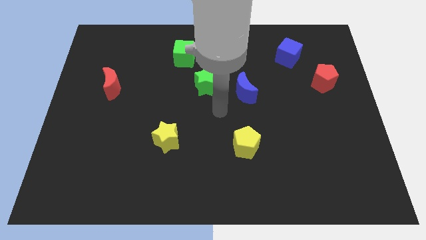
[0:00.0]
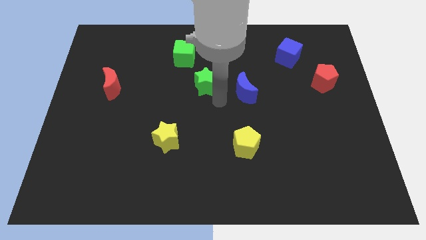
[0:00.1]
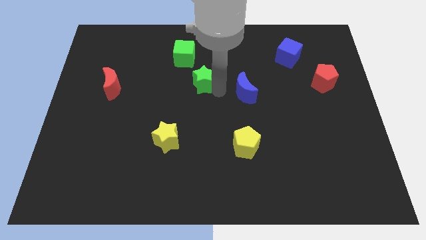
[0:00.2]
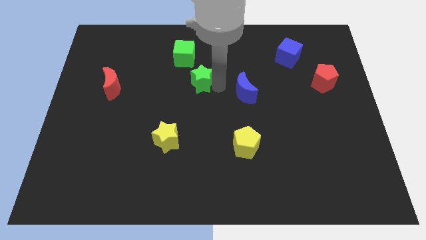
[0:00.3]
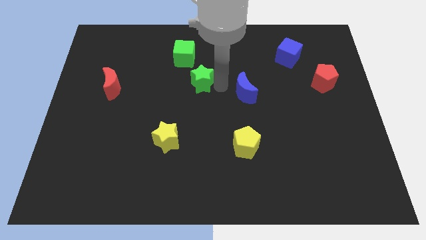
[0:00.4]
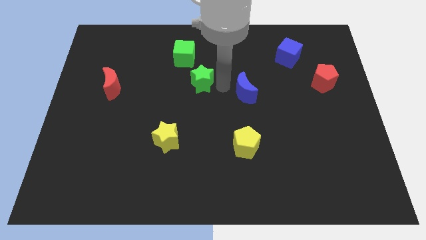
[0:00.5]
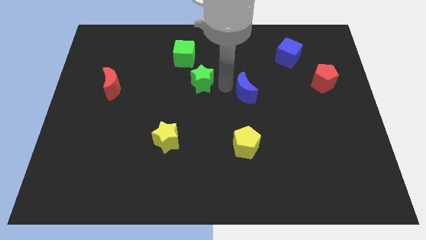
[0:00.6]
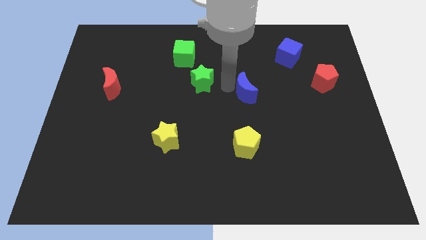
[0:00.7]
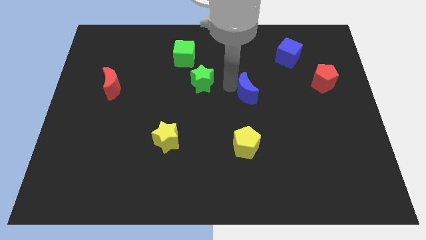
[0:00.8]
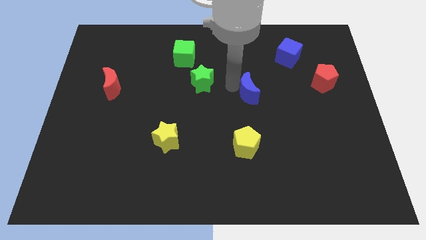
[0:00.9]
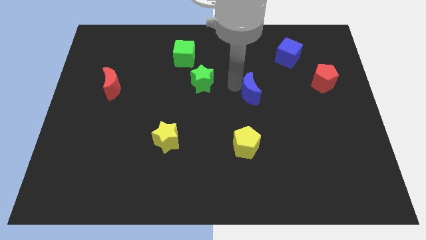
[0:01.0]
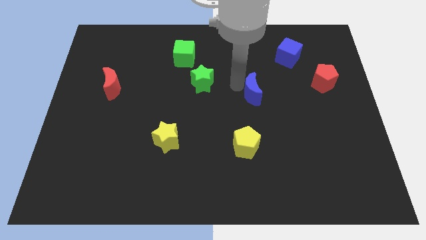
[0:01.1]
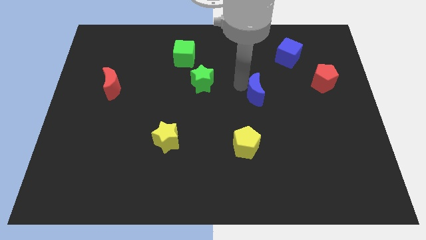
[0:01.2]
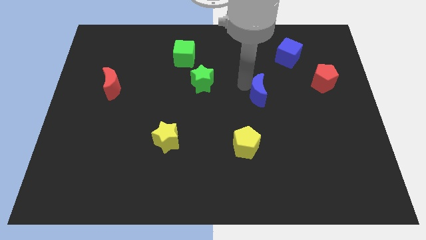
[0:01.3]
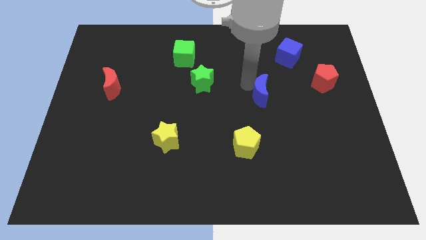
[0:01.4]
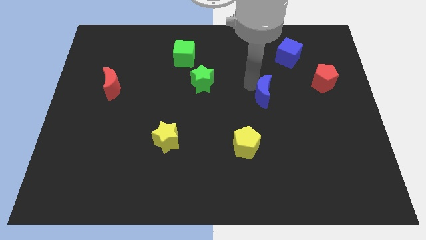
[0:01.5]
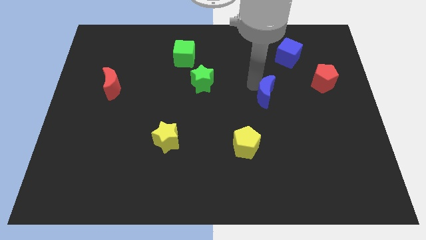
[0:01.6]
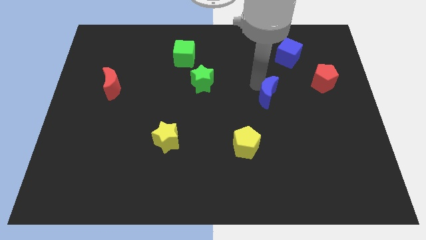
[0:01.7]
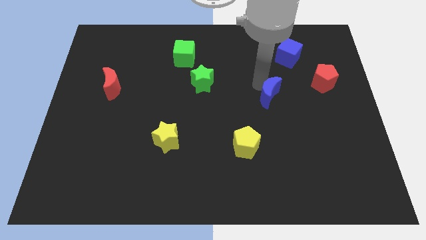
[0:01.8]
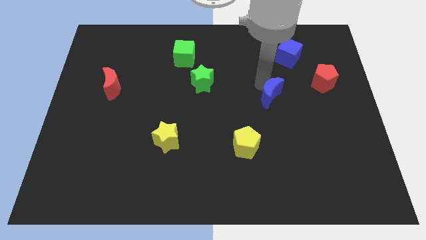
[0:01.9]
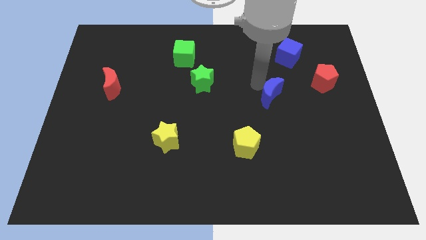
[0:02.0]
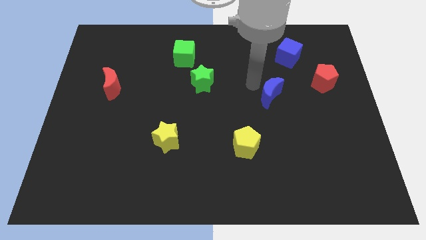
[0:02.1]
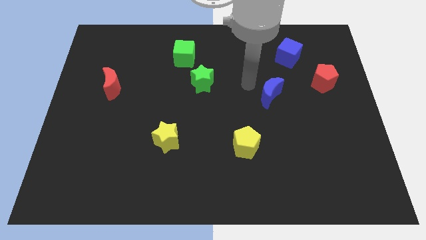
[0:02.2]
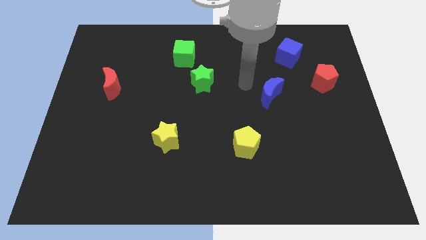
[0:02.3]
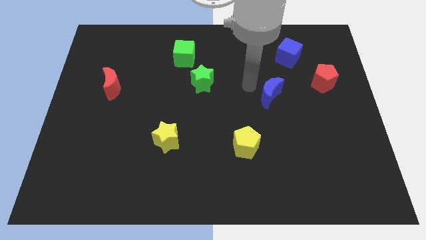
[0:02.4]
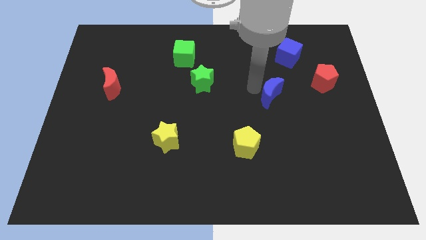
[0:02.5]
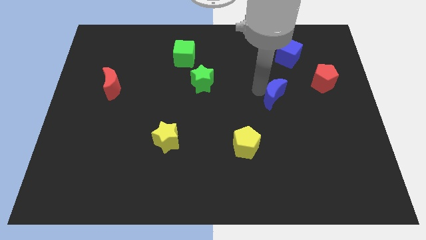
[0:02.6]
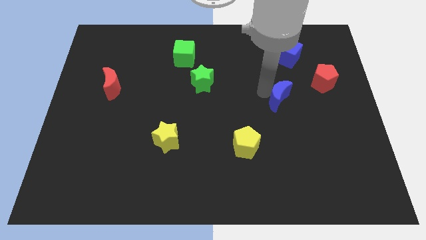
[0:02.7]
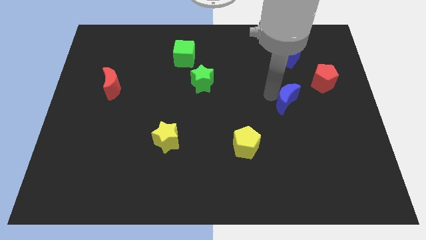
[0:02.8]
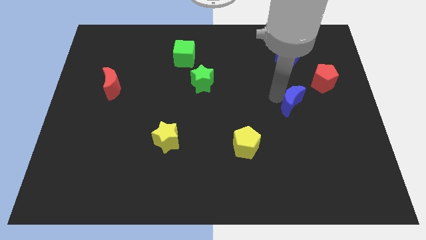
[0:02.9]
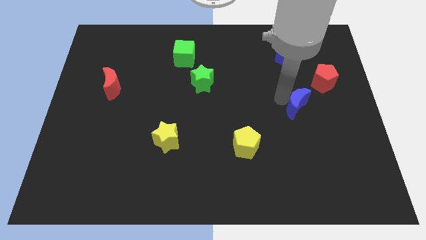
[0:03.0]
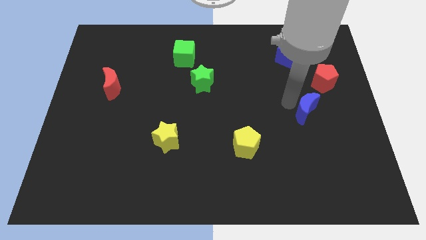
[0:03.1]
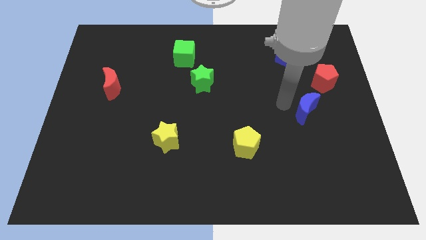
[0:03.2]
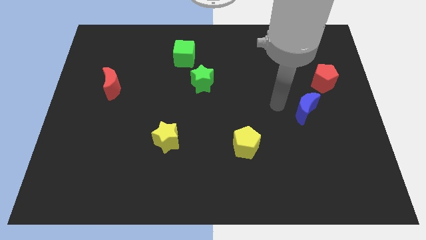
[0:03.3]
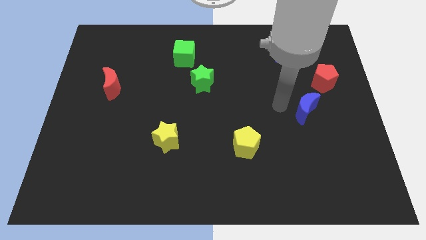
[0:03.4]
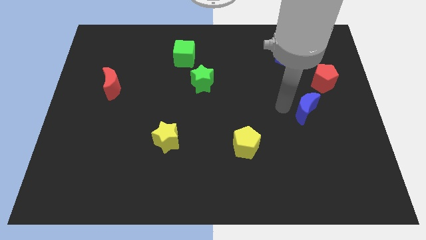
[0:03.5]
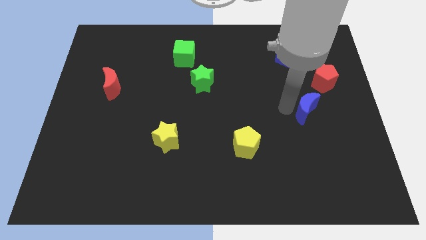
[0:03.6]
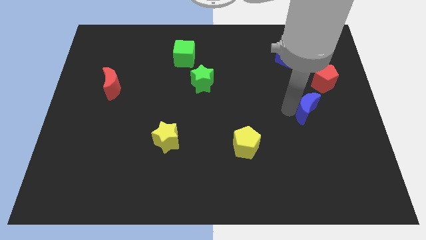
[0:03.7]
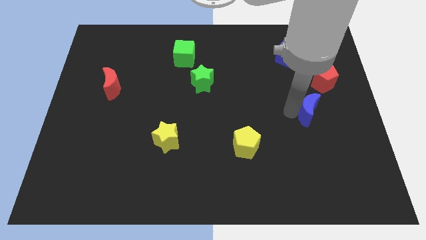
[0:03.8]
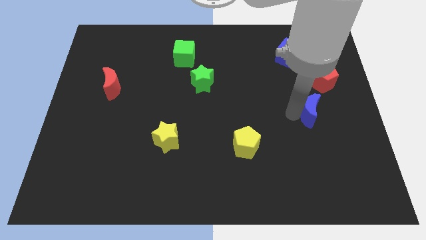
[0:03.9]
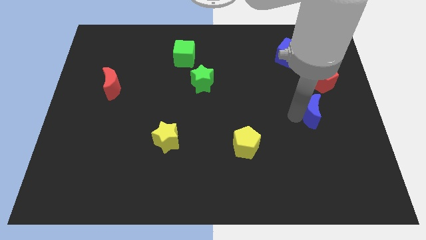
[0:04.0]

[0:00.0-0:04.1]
put the blue moon below the red pentagon

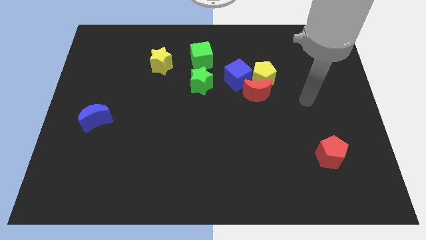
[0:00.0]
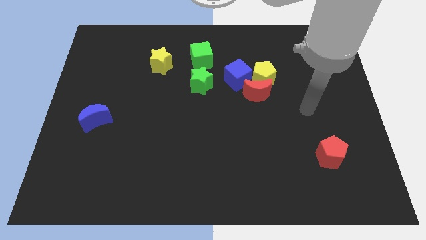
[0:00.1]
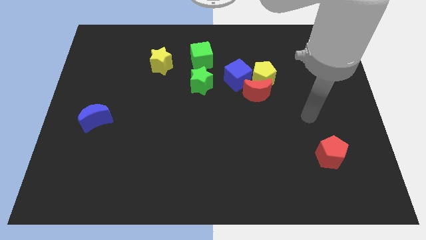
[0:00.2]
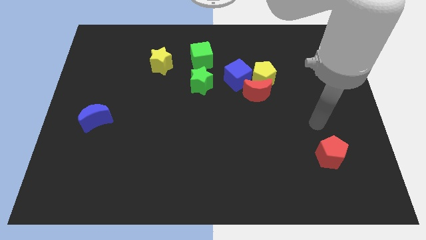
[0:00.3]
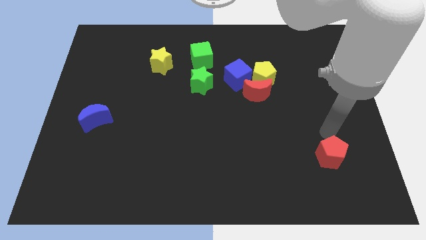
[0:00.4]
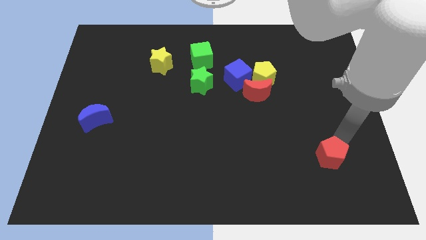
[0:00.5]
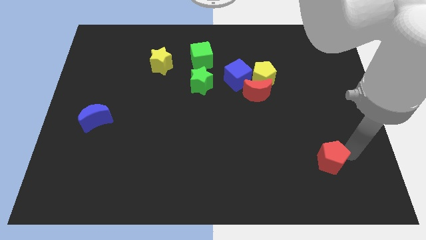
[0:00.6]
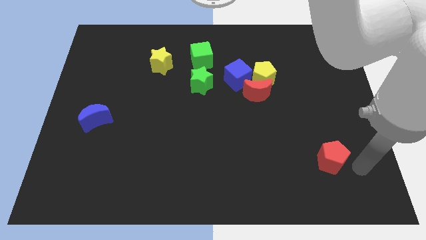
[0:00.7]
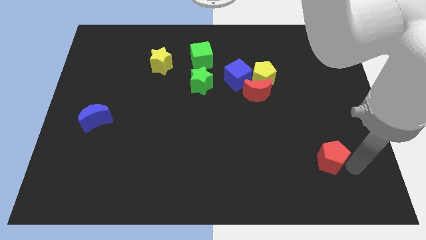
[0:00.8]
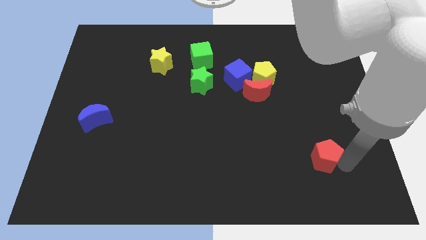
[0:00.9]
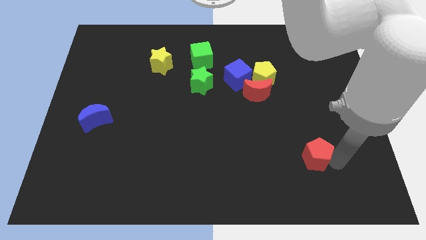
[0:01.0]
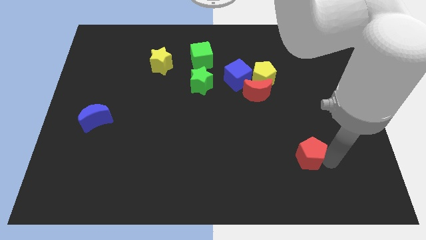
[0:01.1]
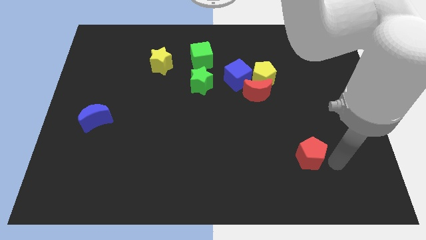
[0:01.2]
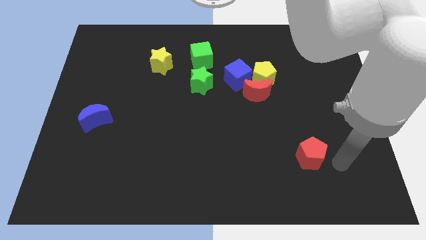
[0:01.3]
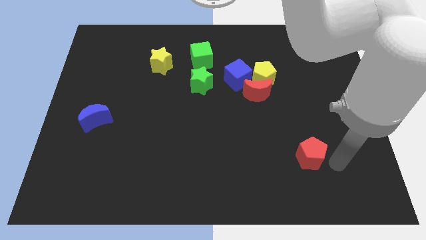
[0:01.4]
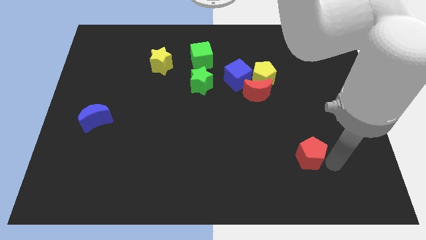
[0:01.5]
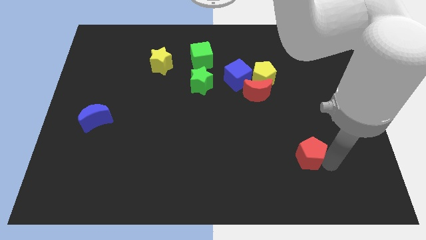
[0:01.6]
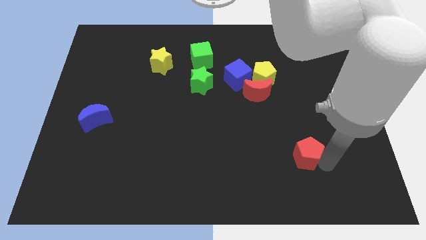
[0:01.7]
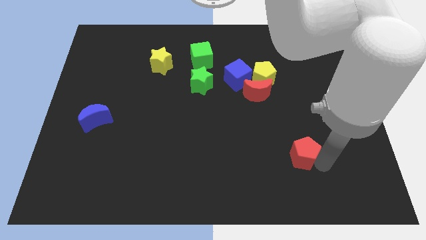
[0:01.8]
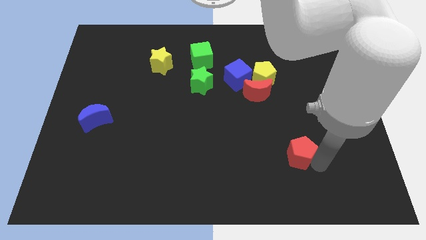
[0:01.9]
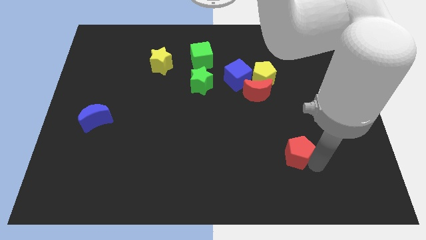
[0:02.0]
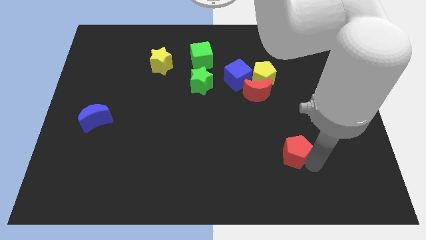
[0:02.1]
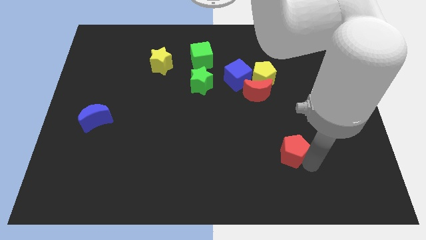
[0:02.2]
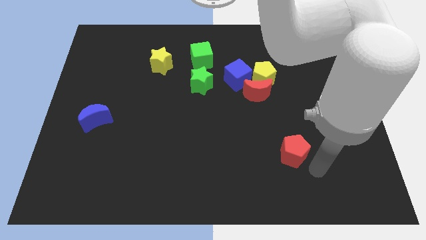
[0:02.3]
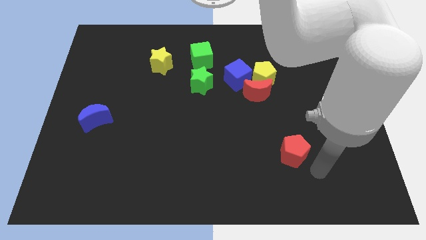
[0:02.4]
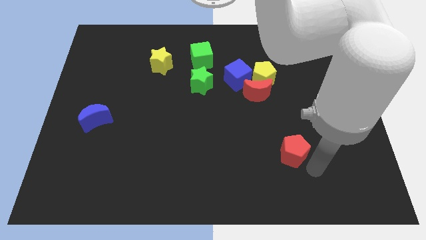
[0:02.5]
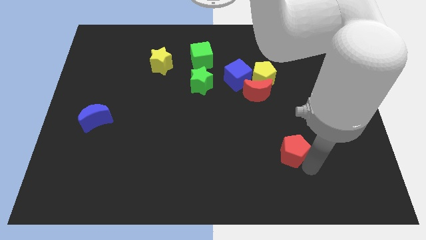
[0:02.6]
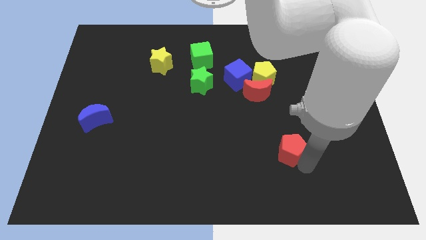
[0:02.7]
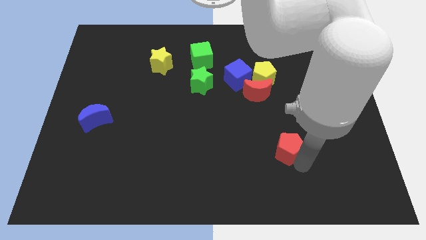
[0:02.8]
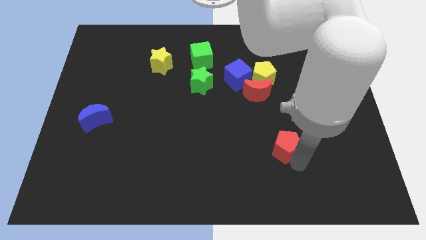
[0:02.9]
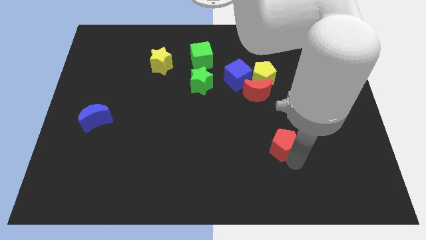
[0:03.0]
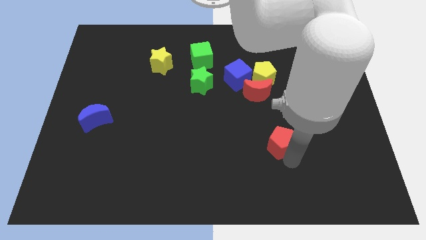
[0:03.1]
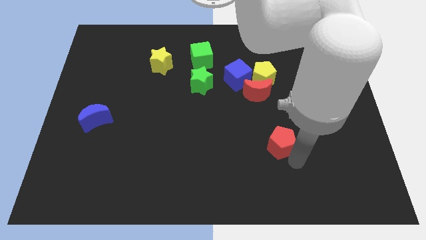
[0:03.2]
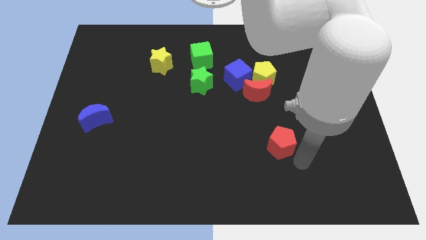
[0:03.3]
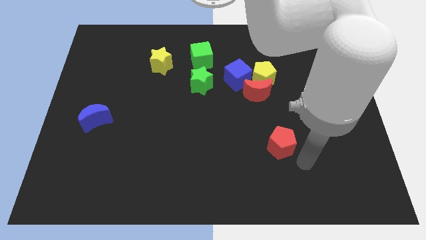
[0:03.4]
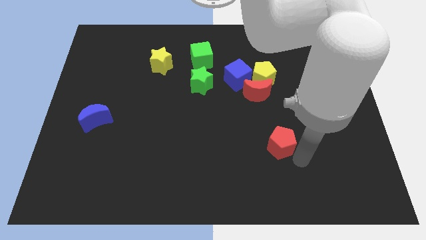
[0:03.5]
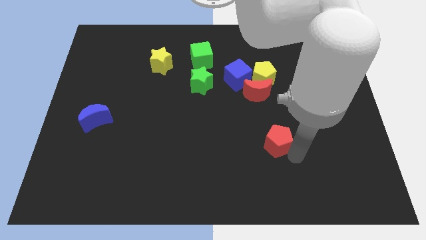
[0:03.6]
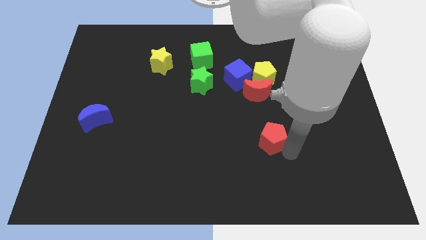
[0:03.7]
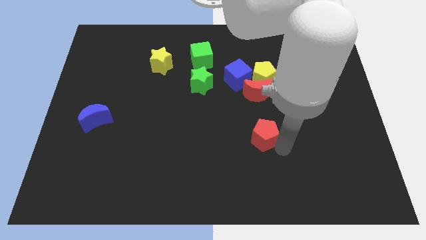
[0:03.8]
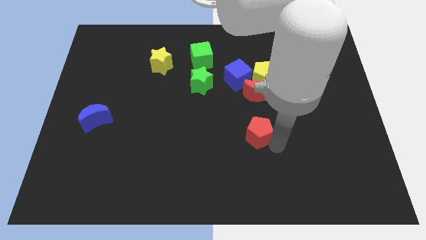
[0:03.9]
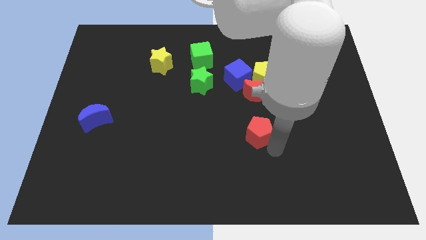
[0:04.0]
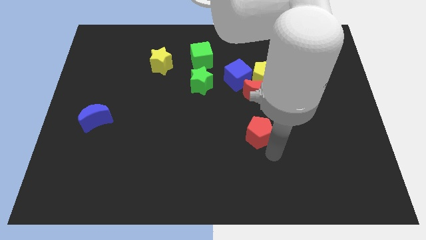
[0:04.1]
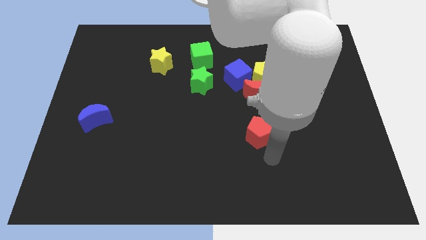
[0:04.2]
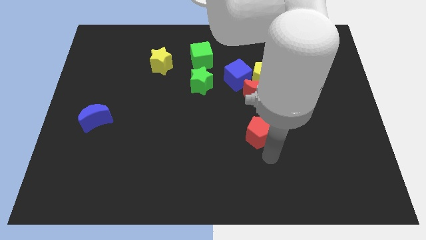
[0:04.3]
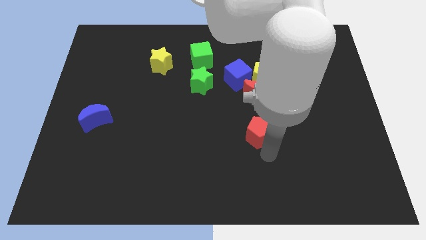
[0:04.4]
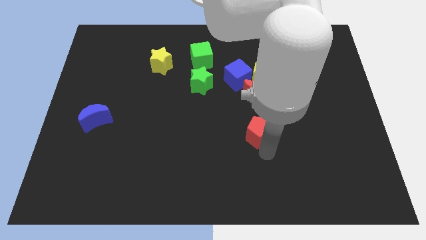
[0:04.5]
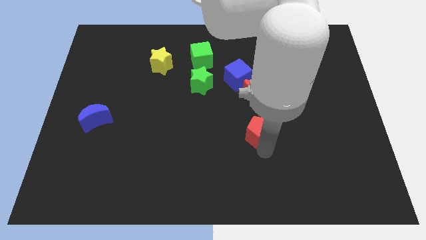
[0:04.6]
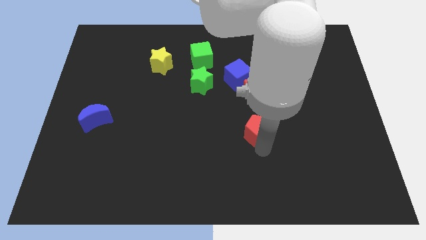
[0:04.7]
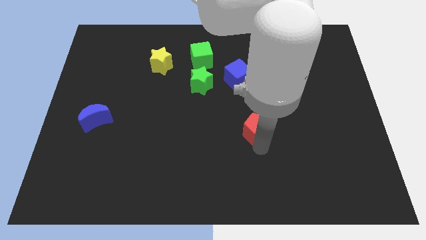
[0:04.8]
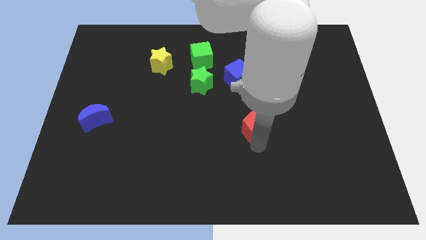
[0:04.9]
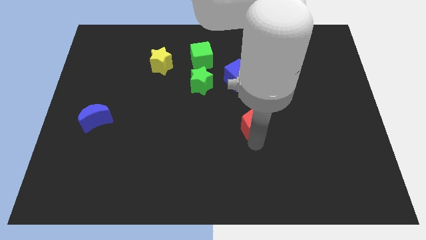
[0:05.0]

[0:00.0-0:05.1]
move the red pentagon to the bottom of the blue cube
